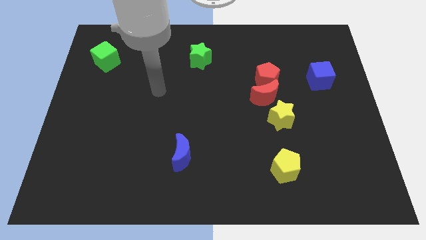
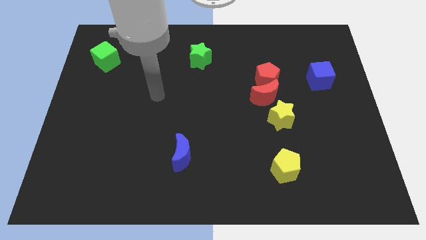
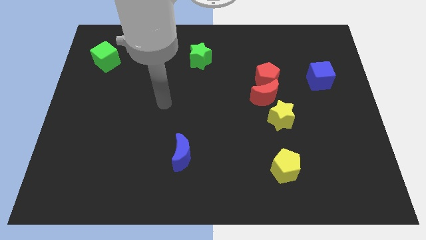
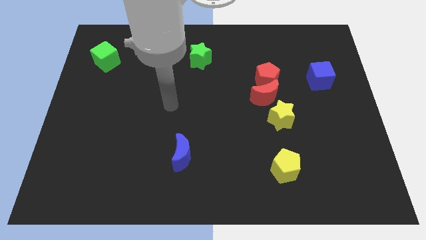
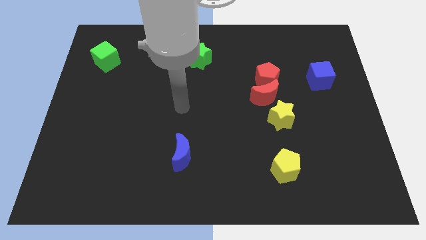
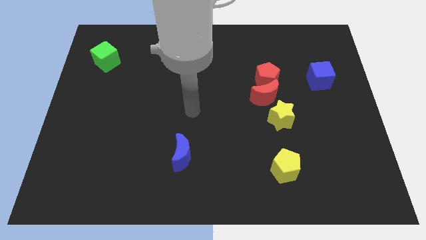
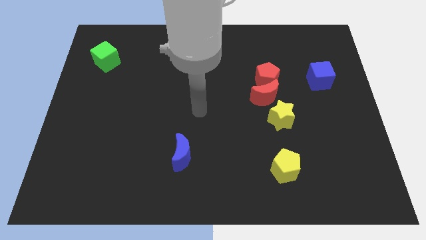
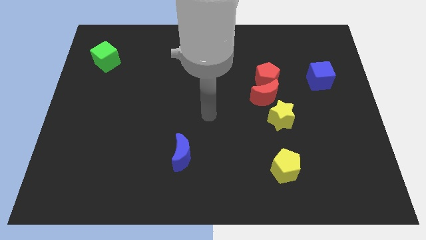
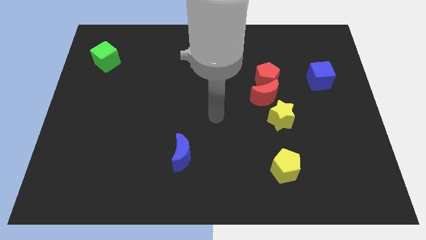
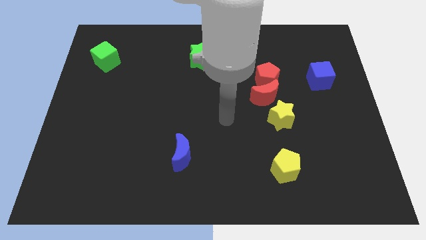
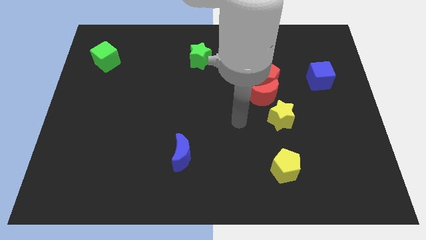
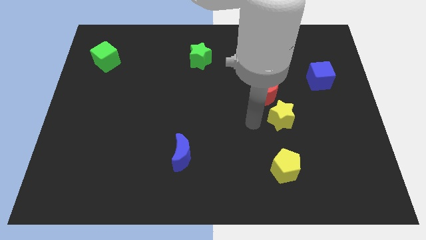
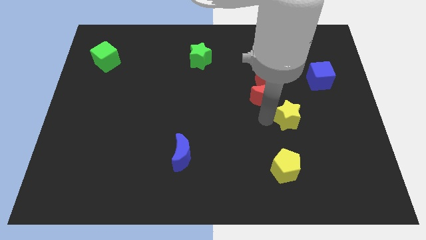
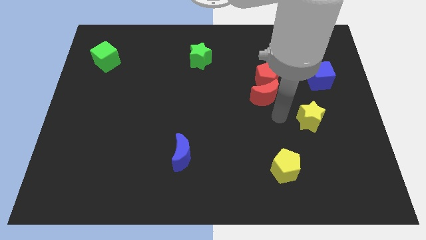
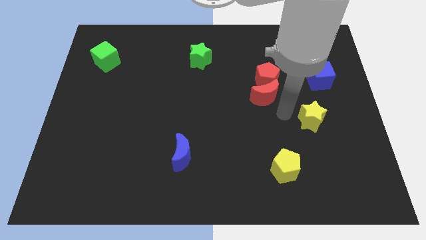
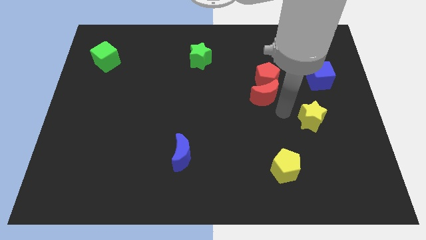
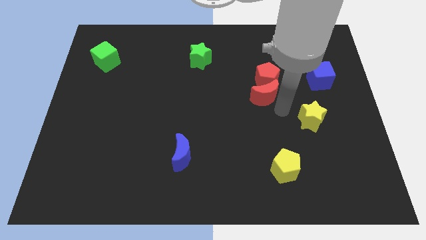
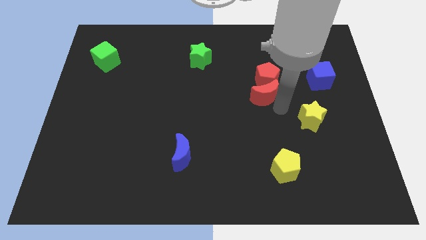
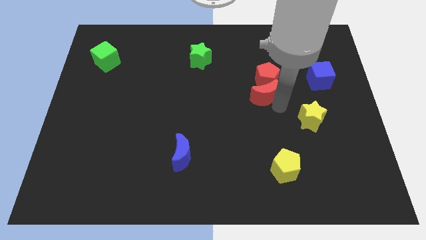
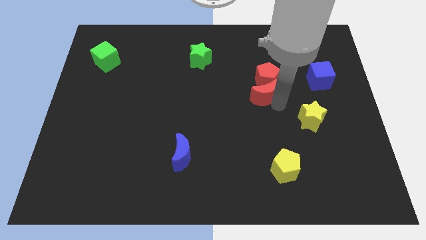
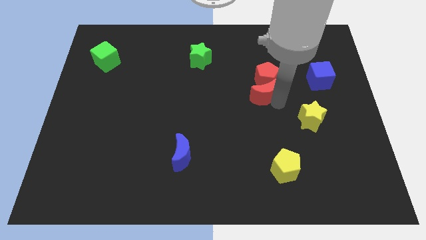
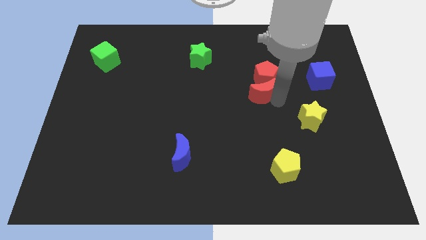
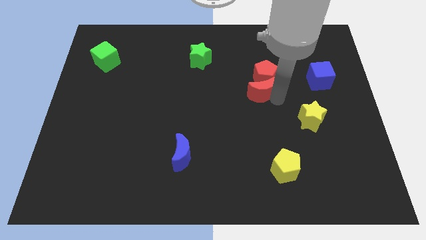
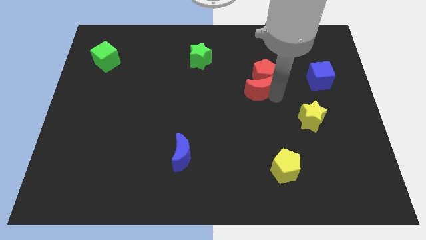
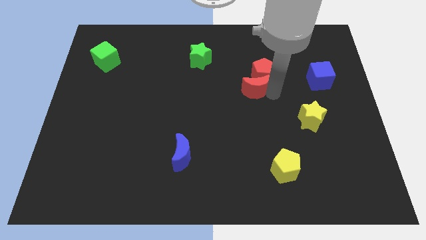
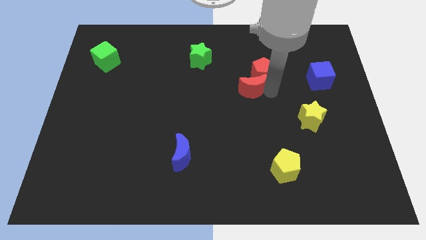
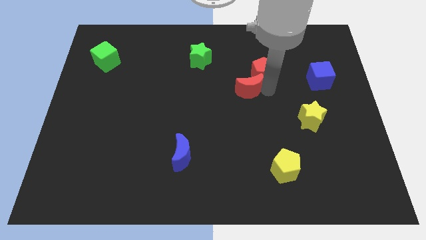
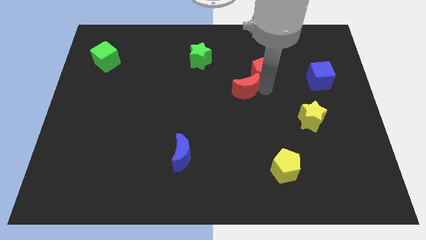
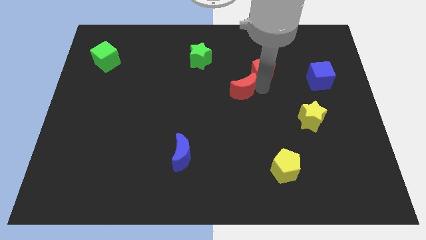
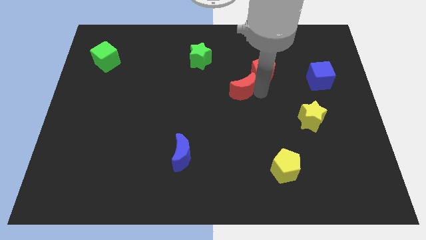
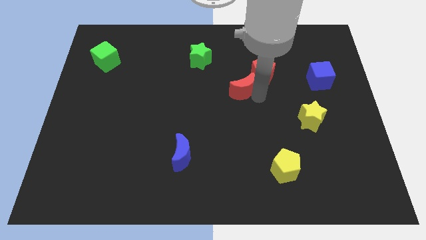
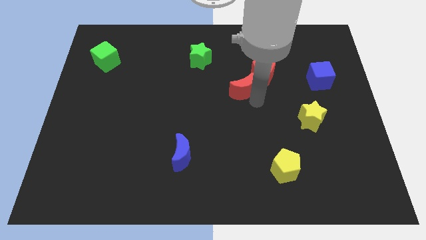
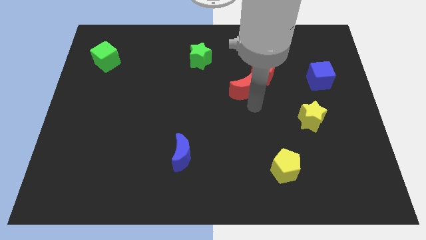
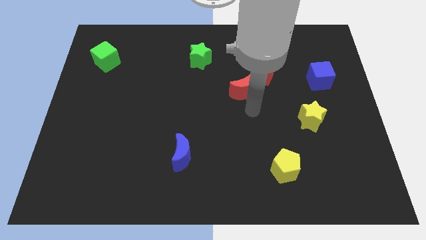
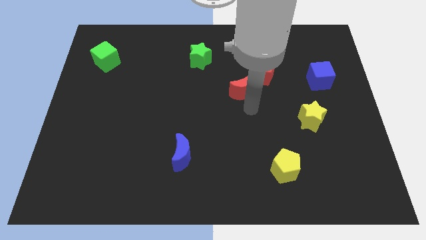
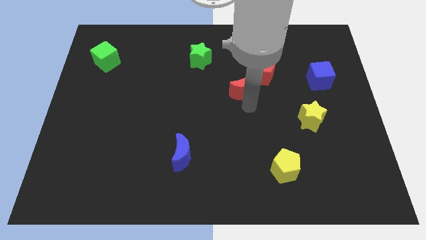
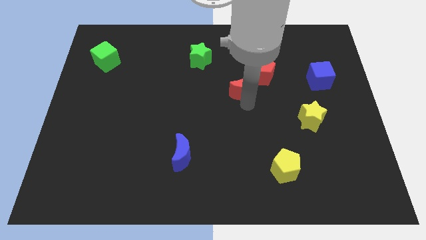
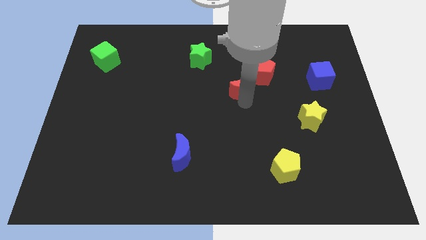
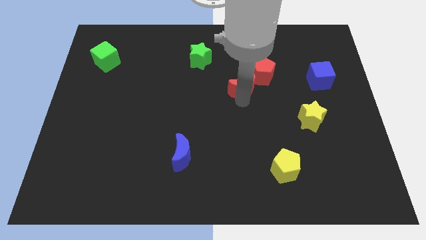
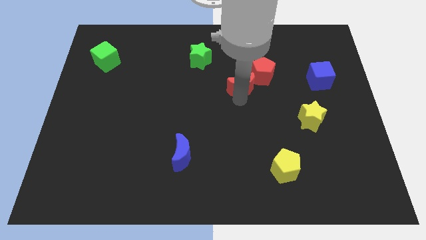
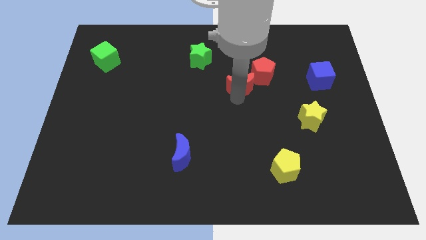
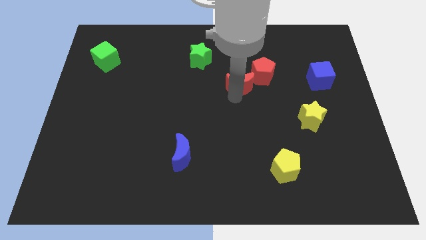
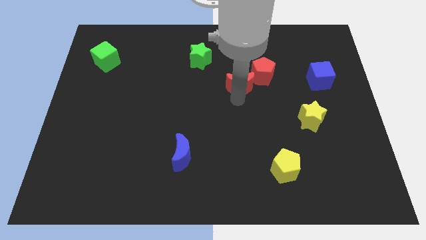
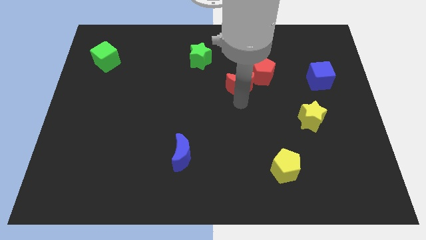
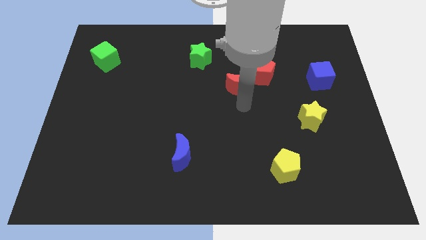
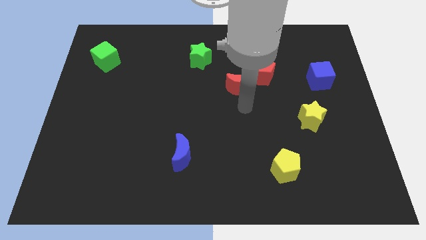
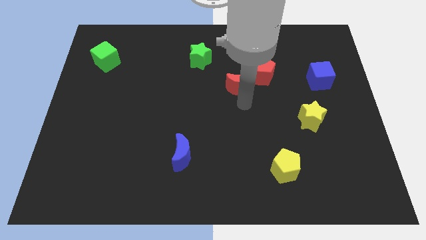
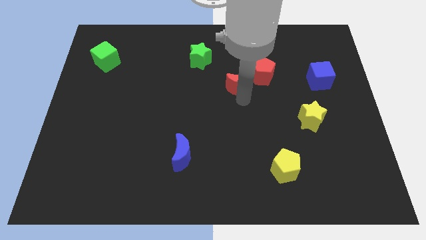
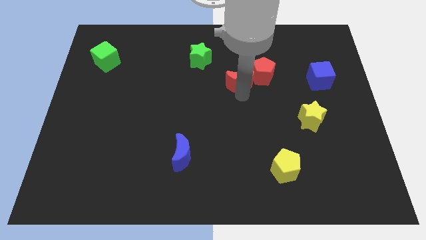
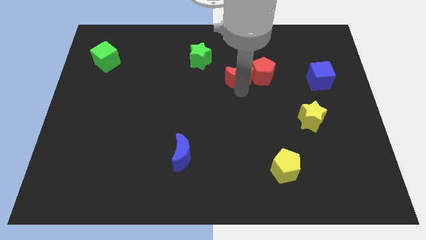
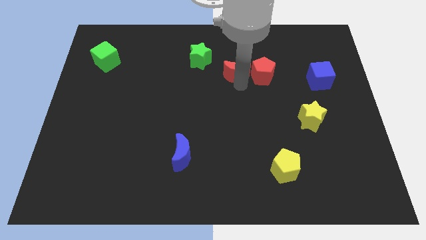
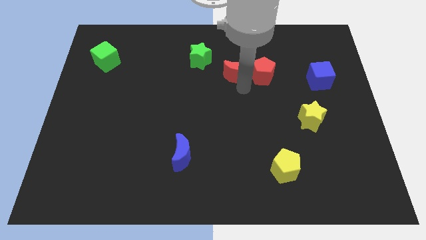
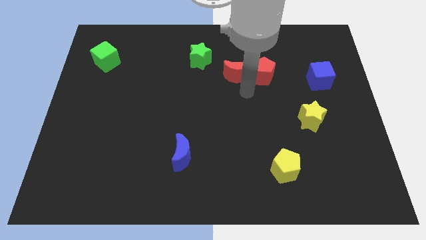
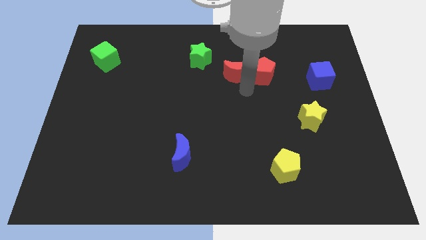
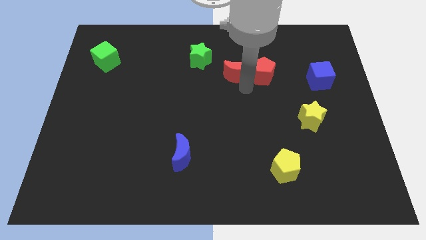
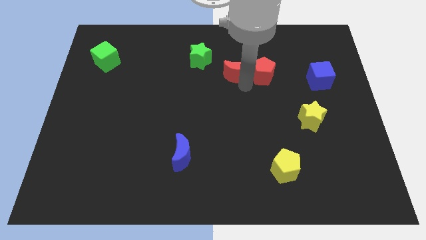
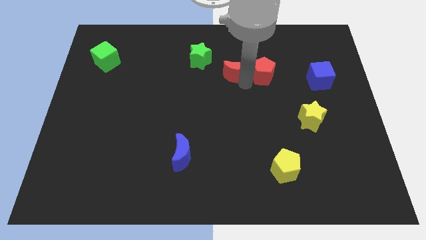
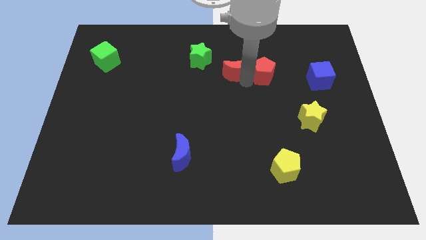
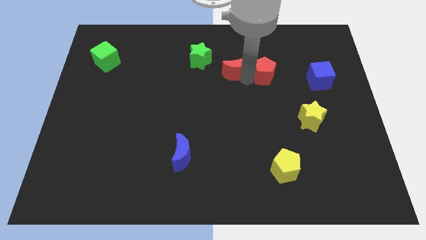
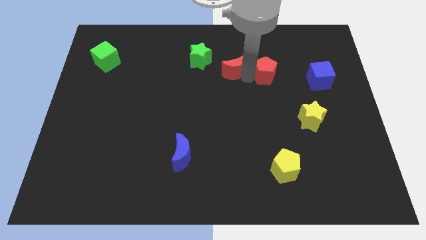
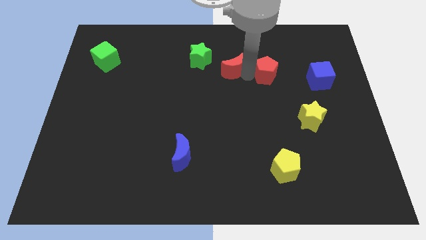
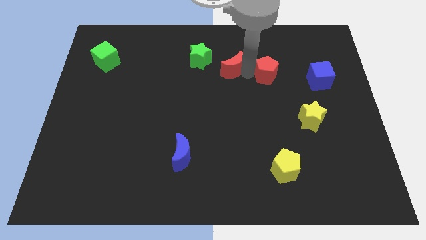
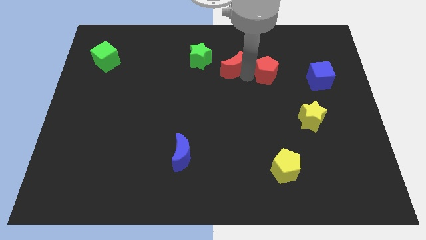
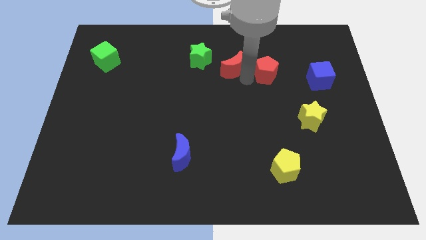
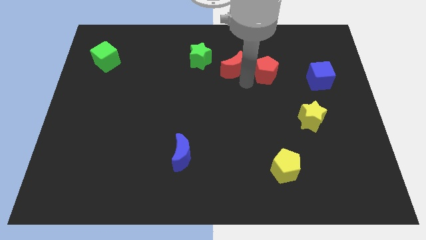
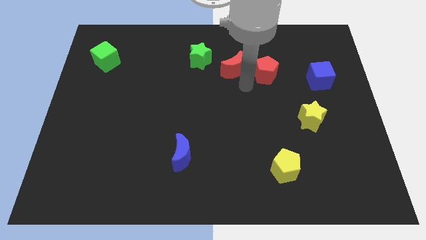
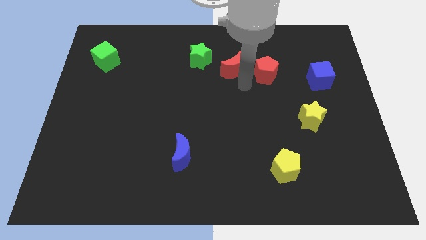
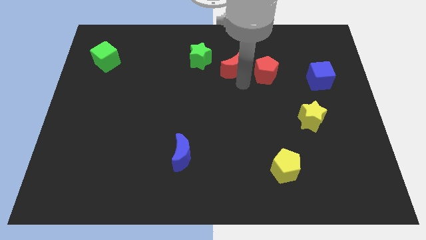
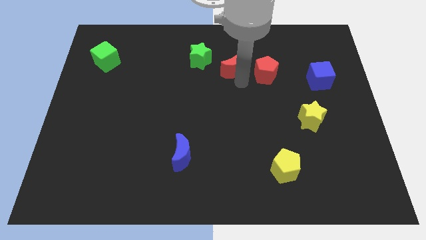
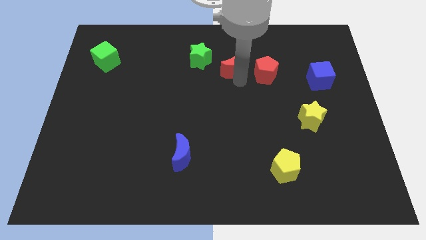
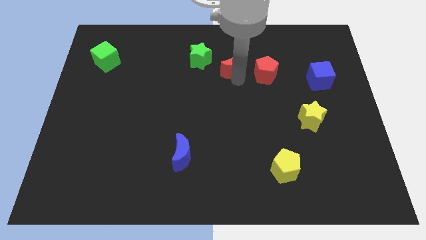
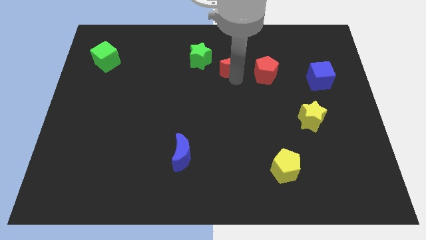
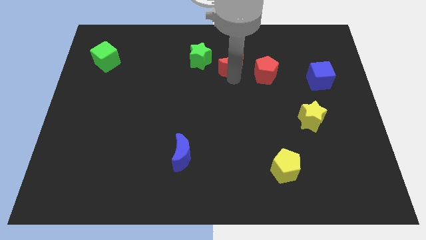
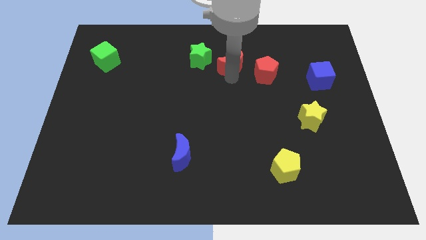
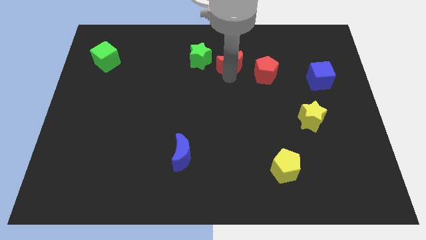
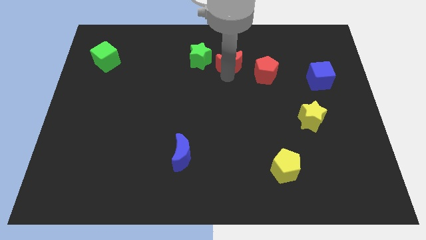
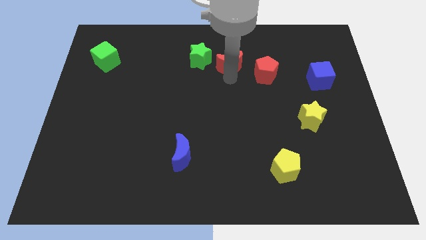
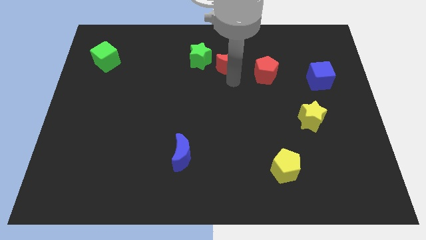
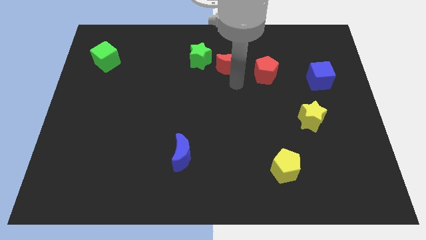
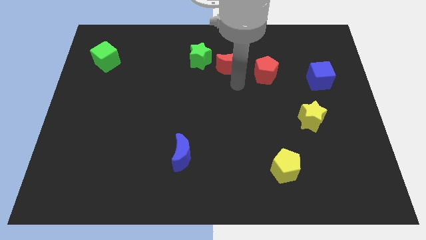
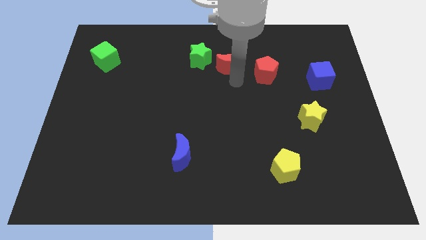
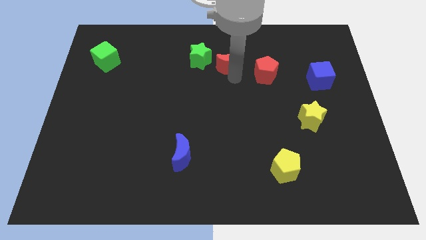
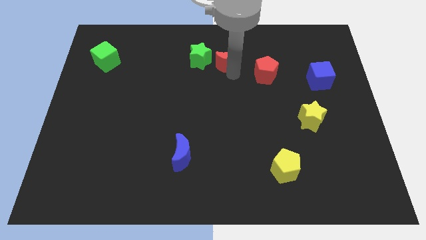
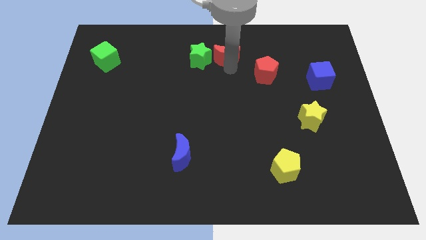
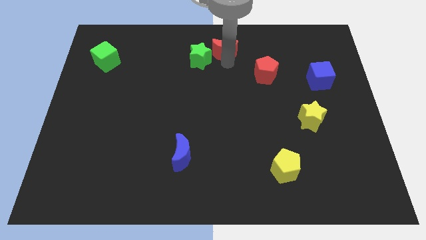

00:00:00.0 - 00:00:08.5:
slide the red moon to the top side
